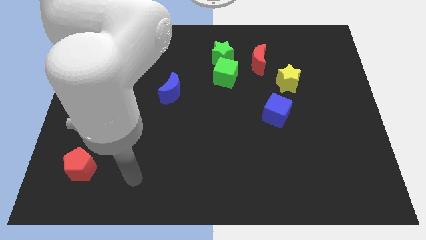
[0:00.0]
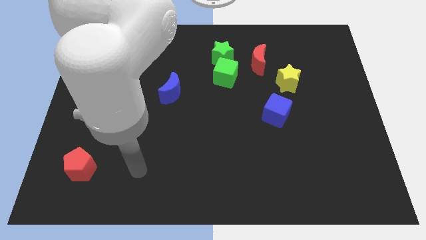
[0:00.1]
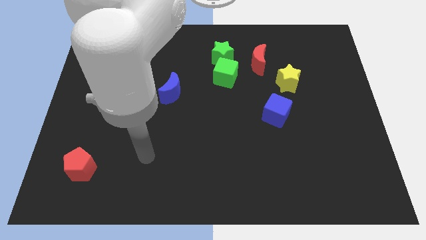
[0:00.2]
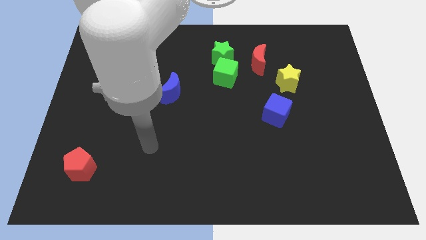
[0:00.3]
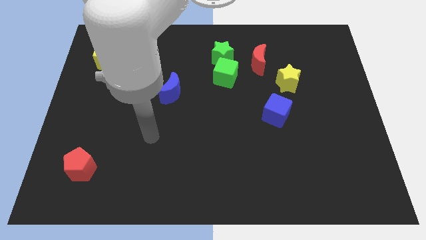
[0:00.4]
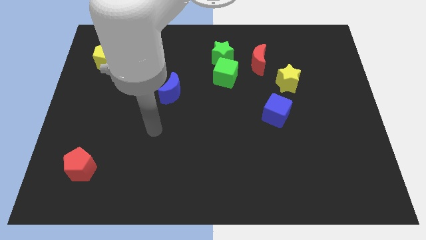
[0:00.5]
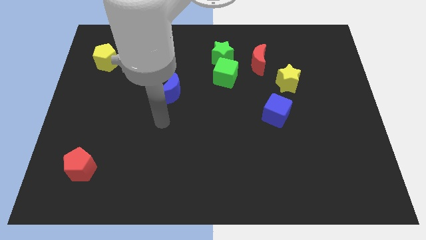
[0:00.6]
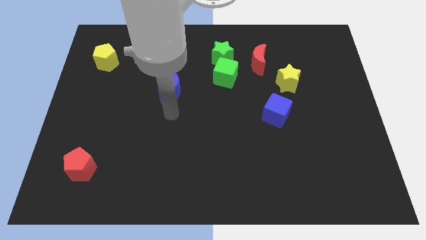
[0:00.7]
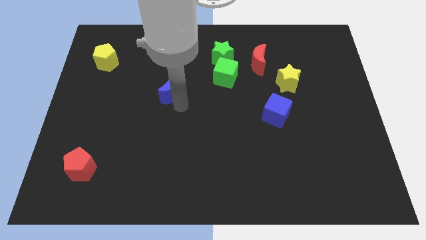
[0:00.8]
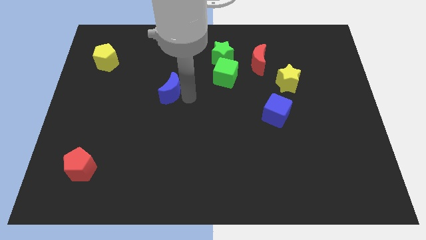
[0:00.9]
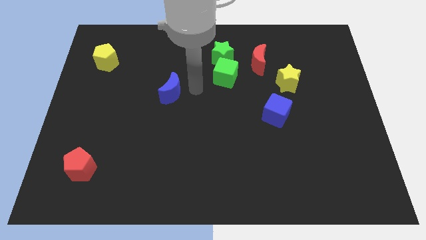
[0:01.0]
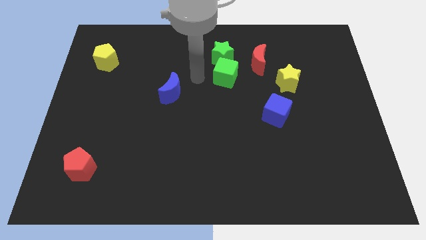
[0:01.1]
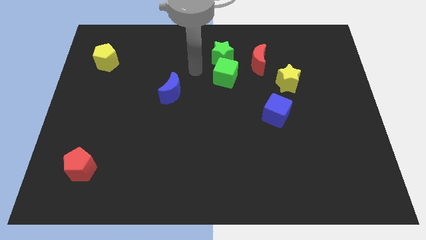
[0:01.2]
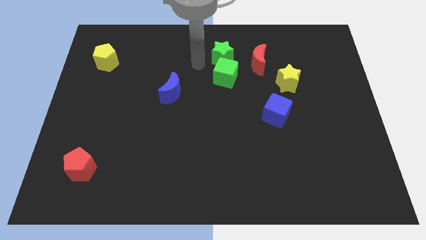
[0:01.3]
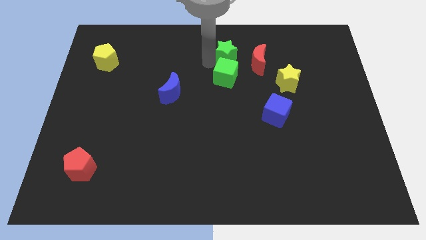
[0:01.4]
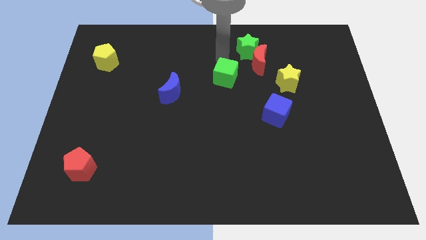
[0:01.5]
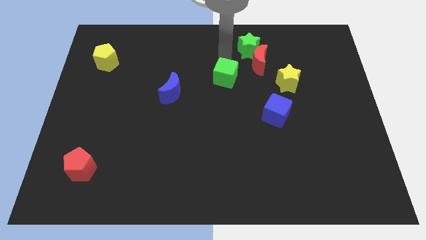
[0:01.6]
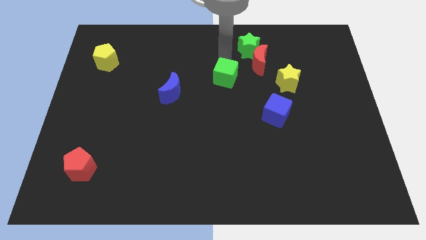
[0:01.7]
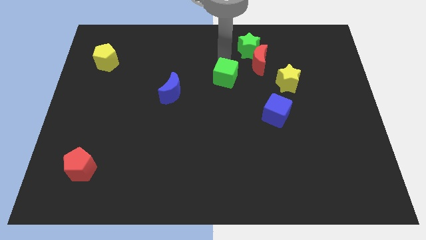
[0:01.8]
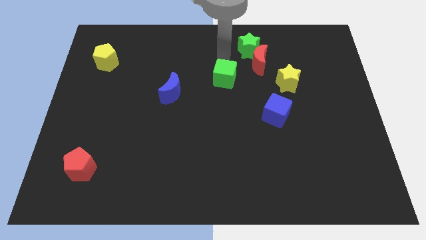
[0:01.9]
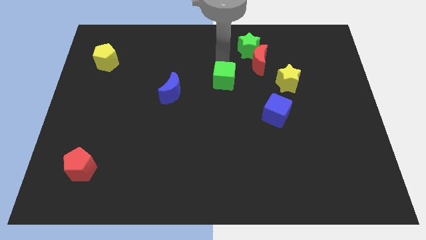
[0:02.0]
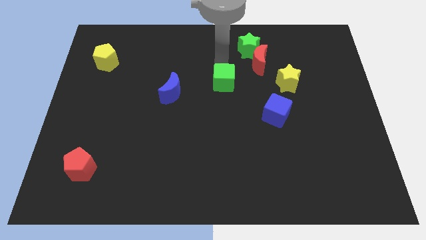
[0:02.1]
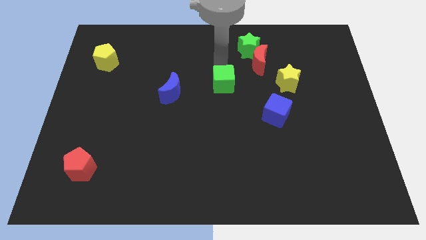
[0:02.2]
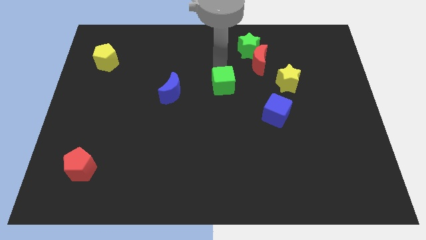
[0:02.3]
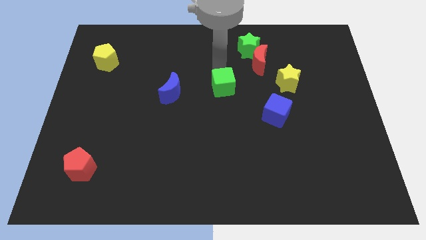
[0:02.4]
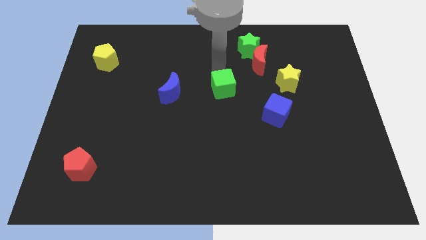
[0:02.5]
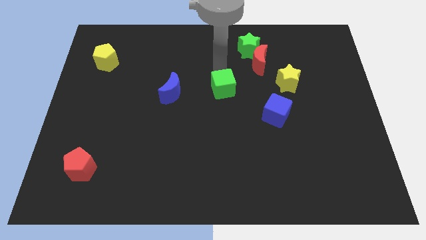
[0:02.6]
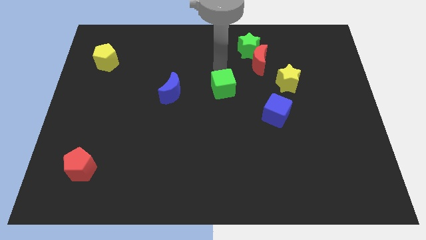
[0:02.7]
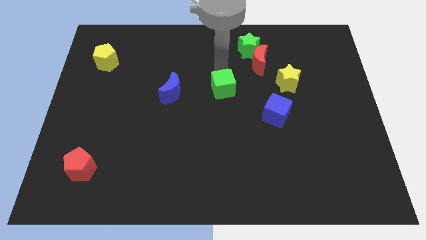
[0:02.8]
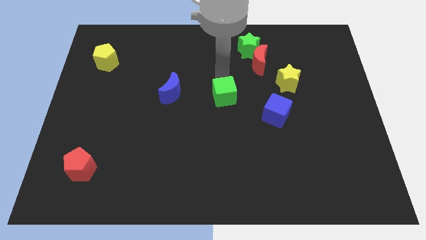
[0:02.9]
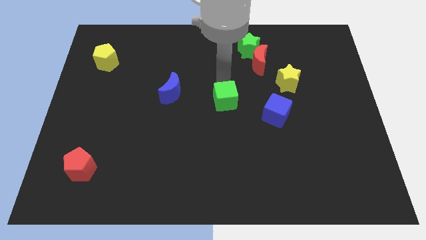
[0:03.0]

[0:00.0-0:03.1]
push the green cube down a little bit

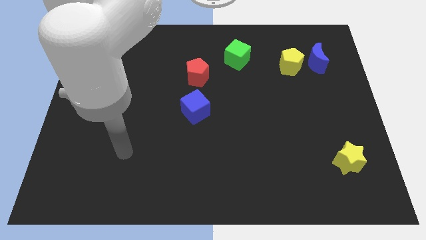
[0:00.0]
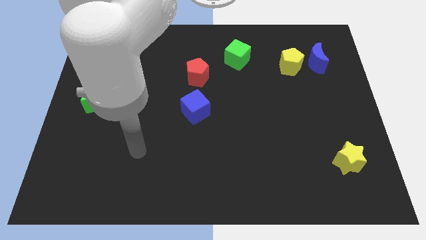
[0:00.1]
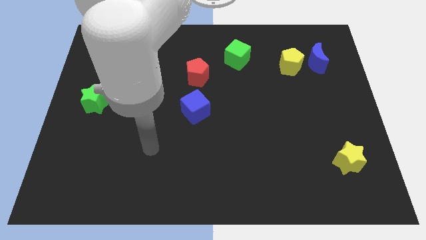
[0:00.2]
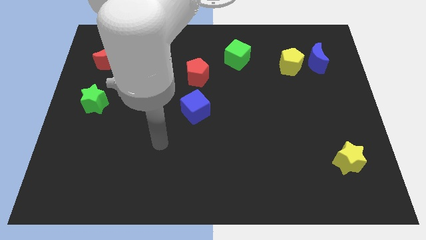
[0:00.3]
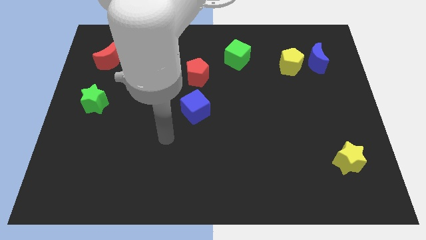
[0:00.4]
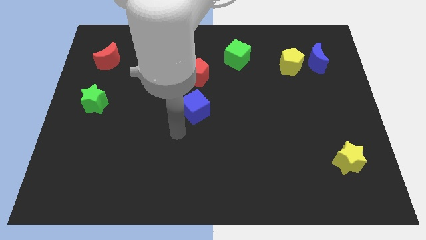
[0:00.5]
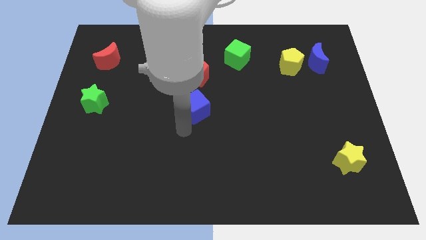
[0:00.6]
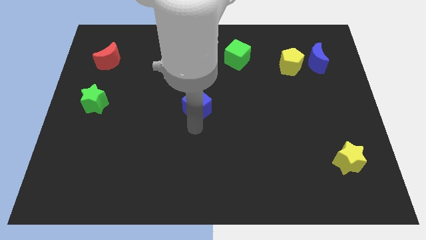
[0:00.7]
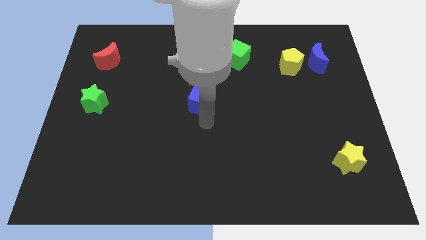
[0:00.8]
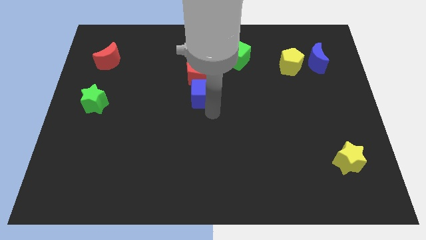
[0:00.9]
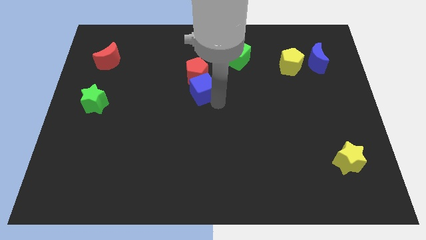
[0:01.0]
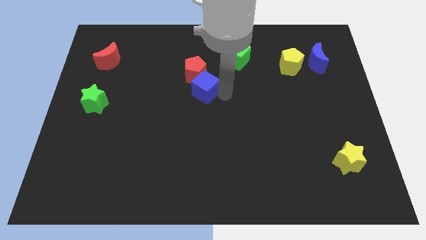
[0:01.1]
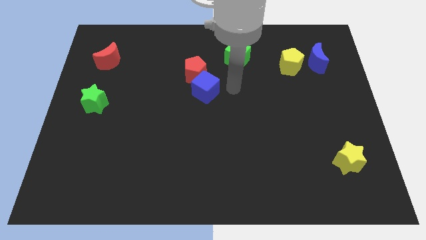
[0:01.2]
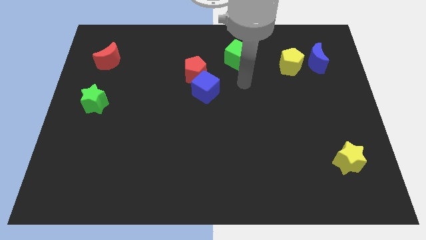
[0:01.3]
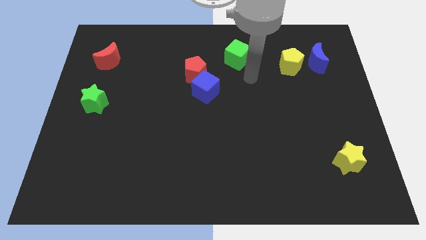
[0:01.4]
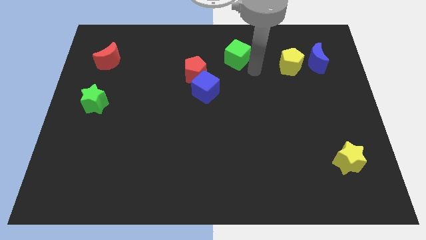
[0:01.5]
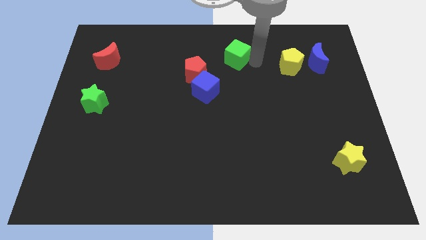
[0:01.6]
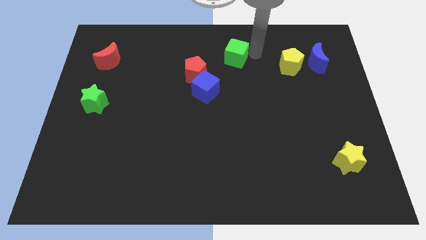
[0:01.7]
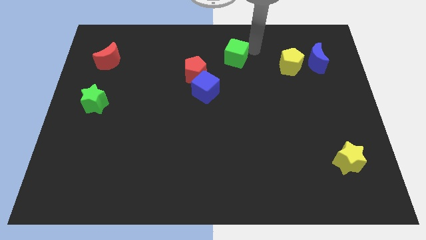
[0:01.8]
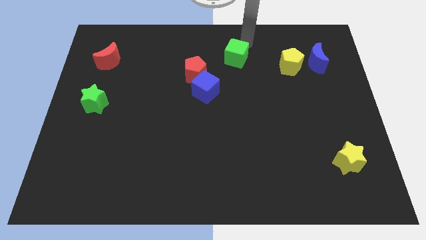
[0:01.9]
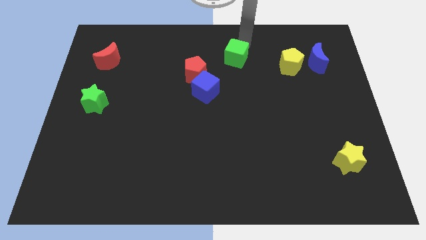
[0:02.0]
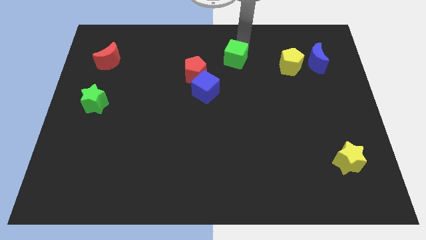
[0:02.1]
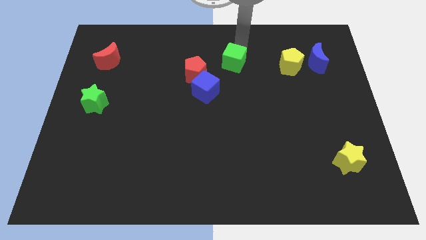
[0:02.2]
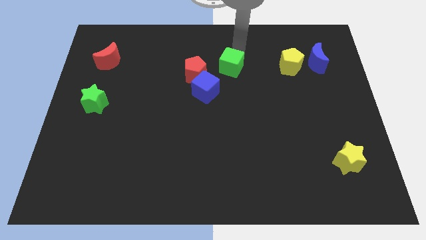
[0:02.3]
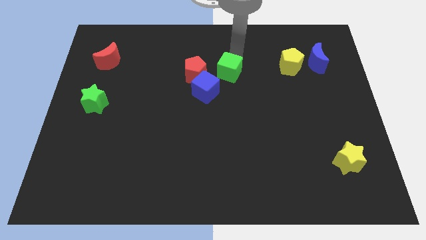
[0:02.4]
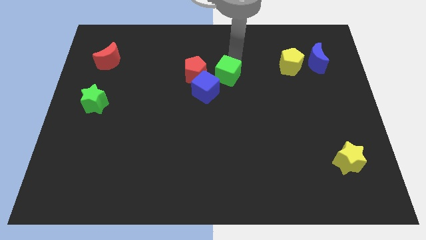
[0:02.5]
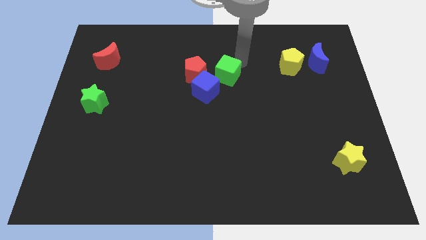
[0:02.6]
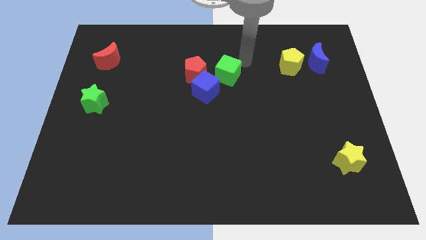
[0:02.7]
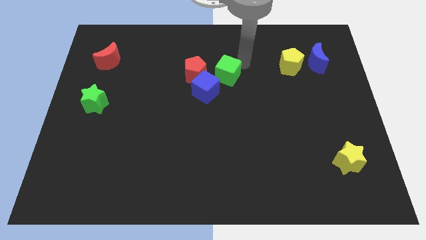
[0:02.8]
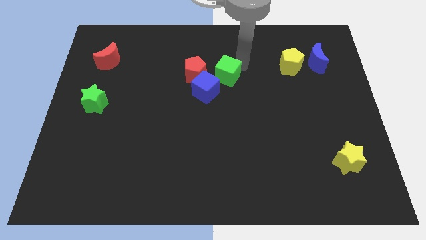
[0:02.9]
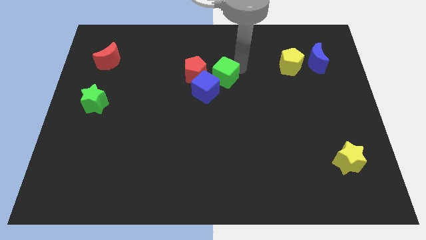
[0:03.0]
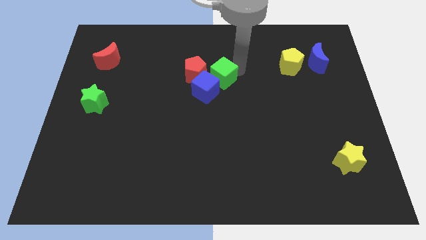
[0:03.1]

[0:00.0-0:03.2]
slightly move the green cube down and to the left

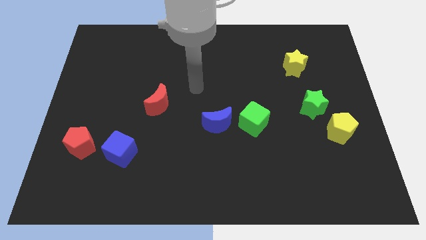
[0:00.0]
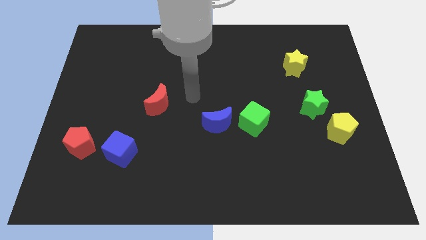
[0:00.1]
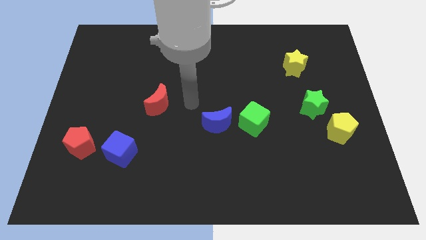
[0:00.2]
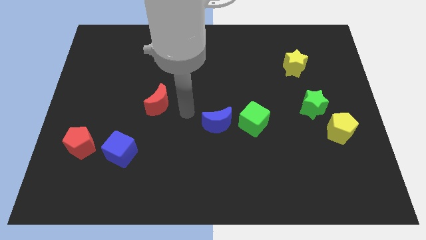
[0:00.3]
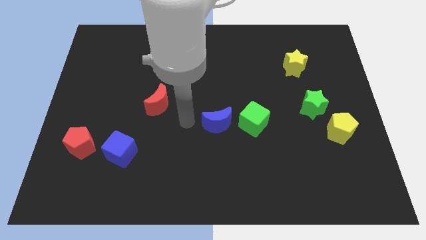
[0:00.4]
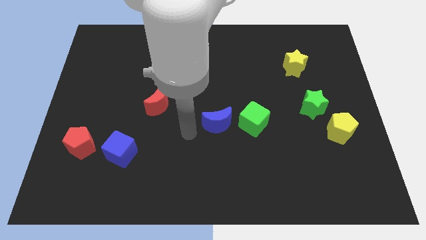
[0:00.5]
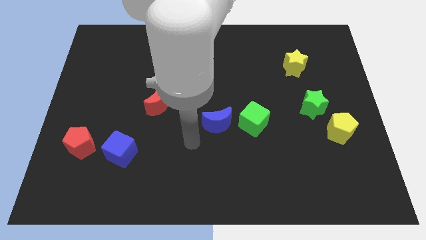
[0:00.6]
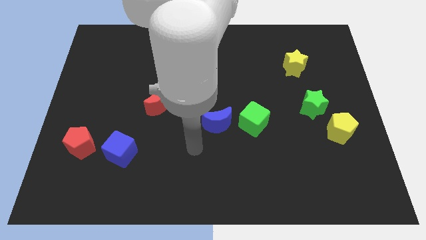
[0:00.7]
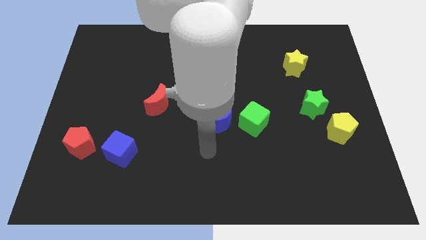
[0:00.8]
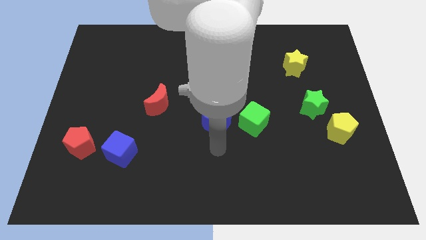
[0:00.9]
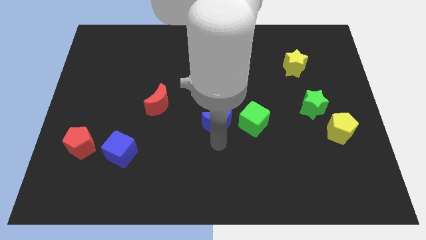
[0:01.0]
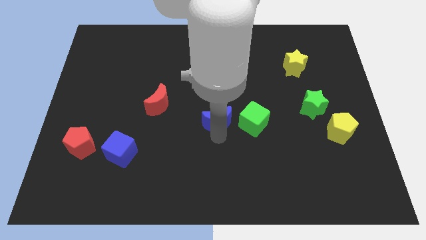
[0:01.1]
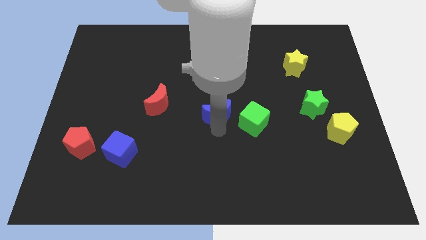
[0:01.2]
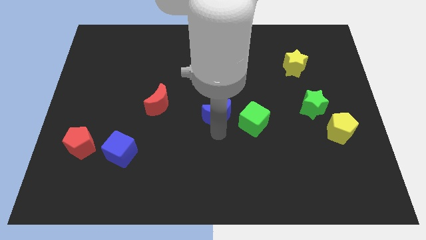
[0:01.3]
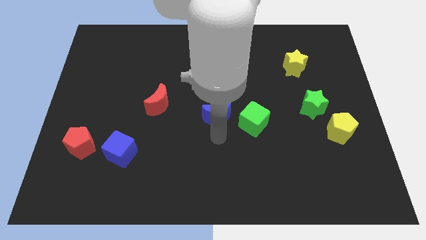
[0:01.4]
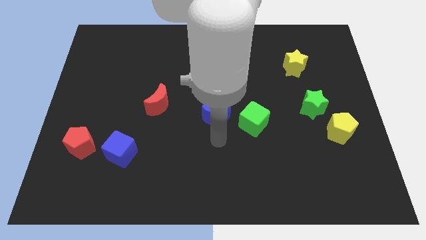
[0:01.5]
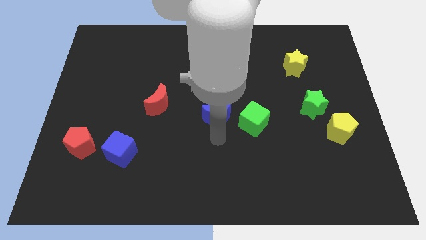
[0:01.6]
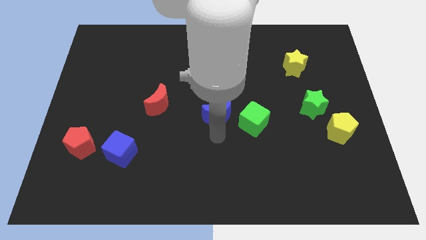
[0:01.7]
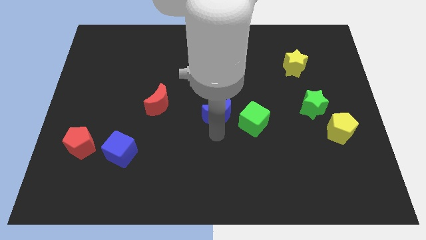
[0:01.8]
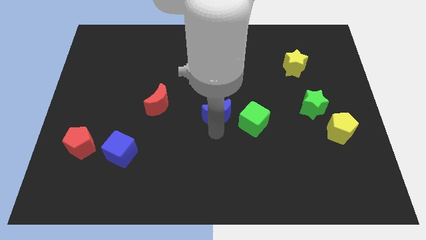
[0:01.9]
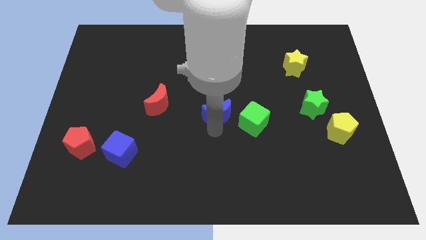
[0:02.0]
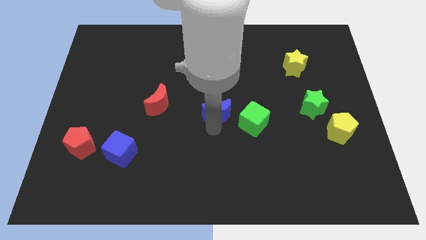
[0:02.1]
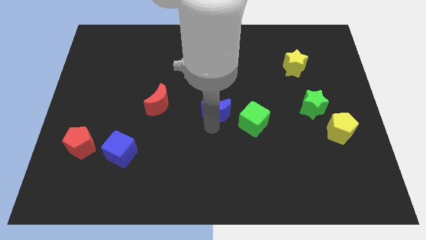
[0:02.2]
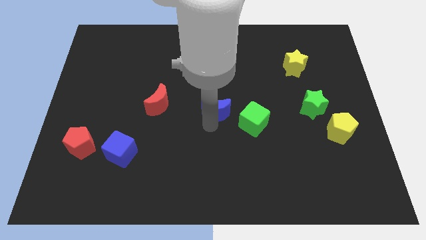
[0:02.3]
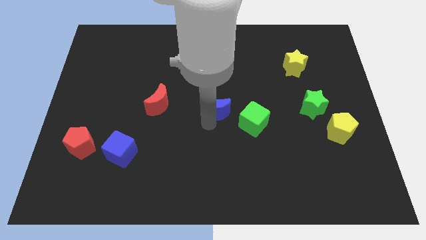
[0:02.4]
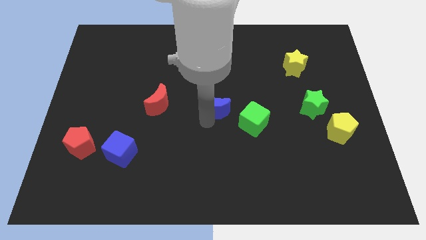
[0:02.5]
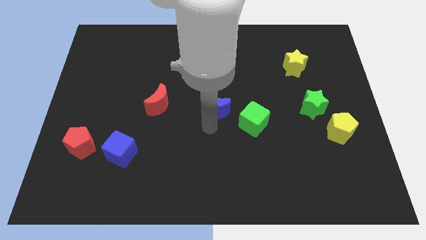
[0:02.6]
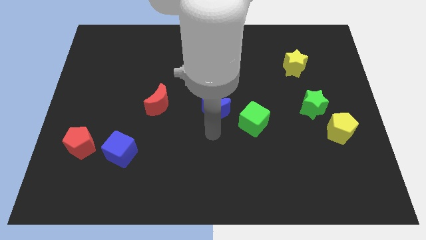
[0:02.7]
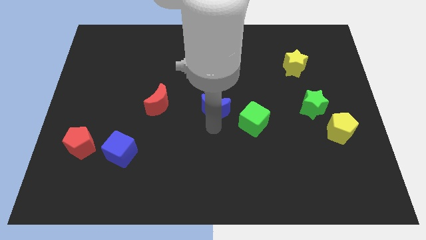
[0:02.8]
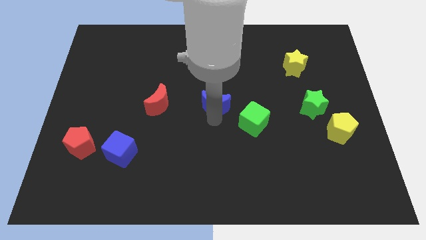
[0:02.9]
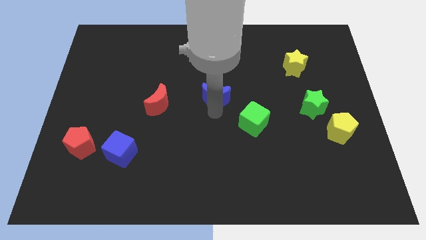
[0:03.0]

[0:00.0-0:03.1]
push the blue moon a bit upwards
